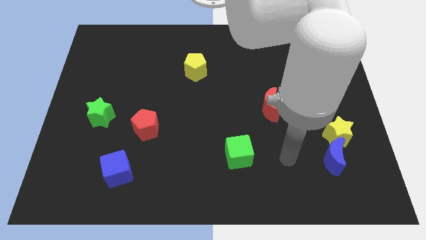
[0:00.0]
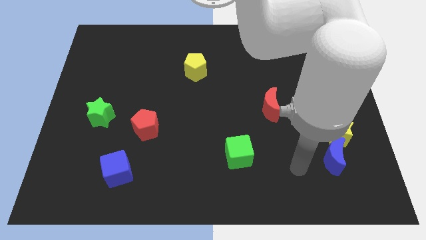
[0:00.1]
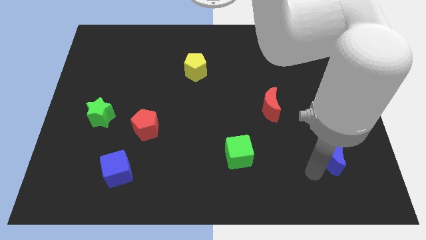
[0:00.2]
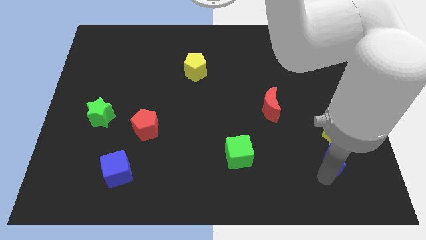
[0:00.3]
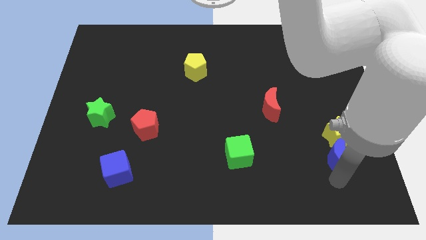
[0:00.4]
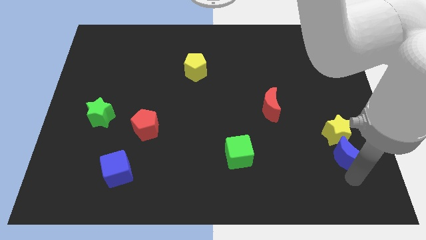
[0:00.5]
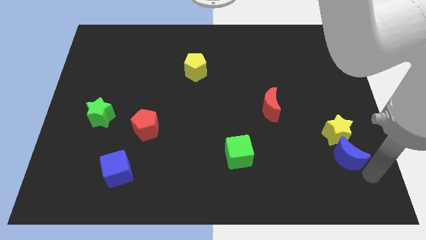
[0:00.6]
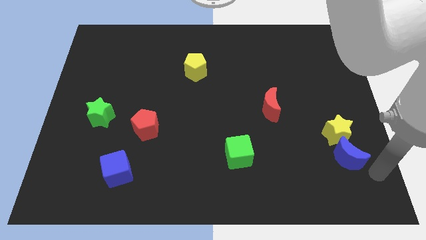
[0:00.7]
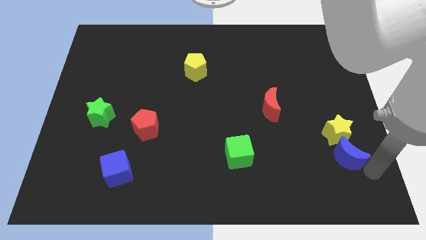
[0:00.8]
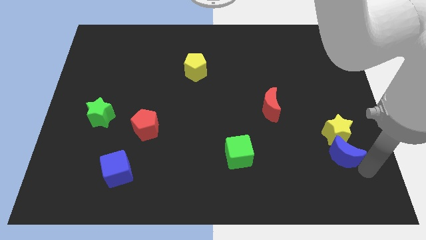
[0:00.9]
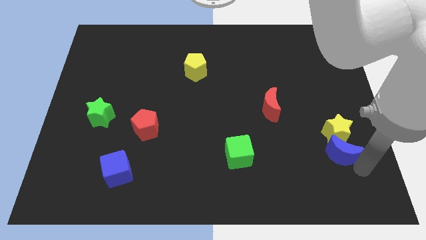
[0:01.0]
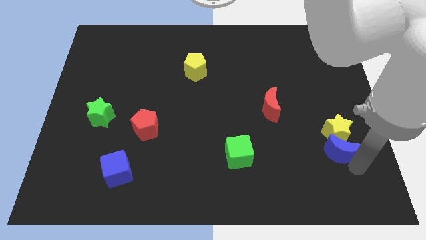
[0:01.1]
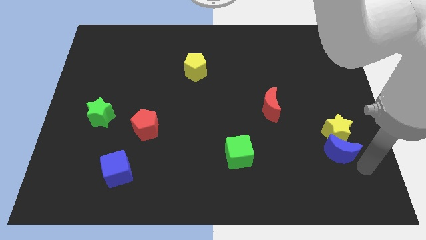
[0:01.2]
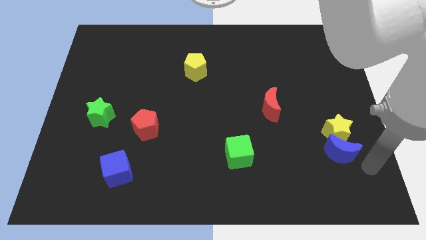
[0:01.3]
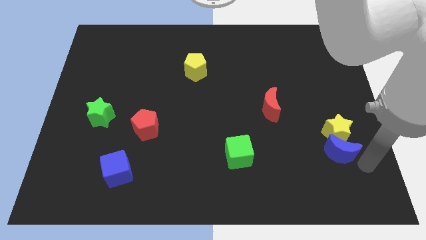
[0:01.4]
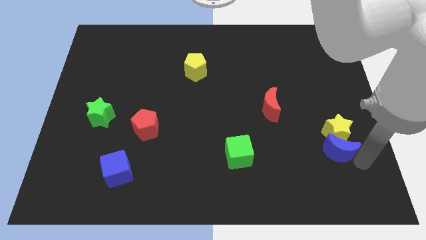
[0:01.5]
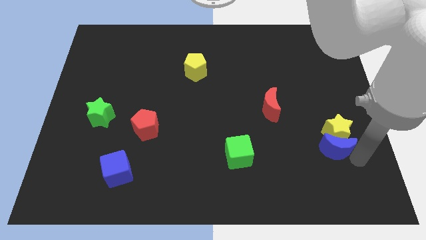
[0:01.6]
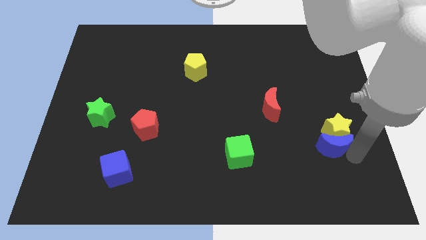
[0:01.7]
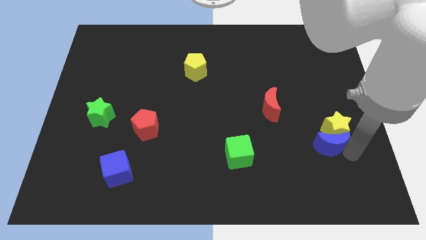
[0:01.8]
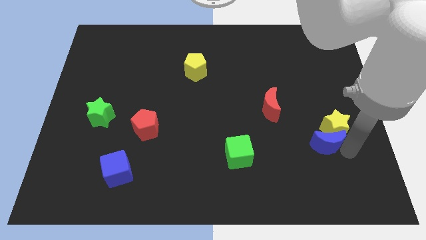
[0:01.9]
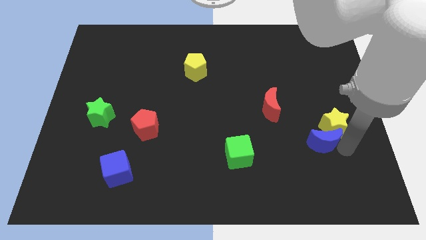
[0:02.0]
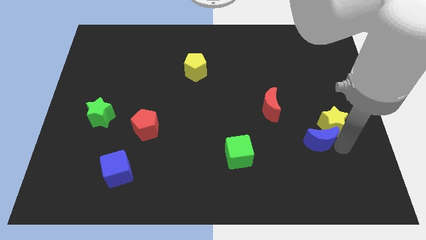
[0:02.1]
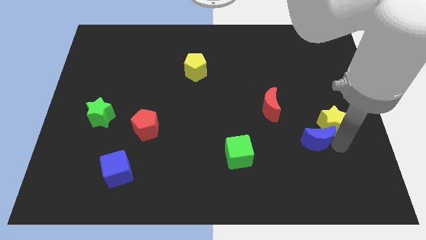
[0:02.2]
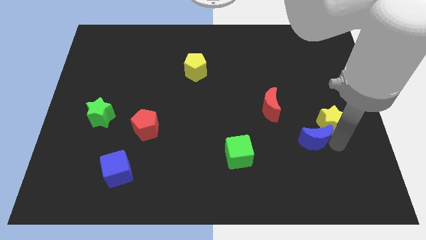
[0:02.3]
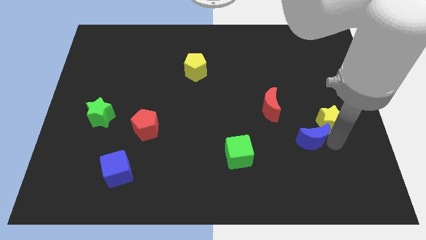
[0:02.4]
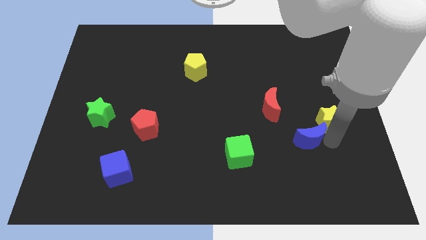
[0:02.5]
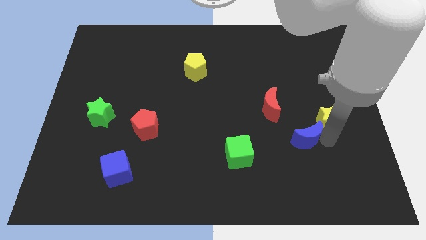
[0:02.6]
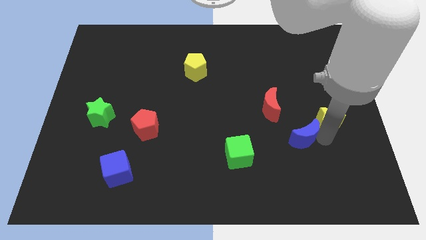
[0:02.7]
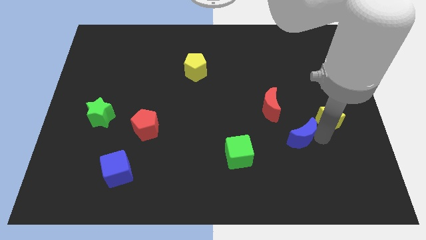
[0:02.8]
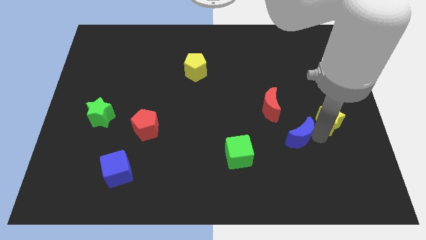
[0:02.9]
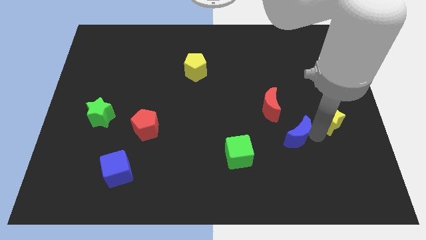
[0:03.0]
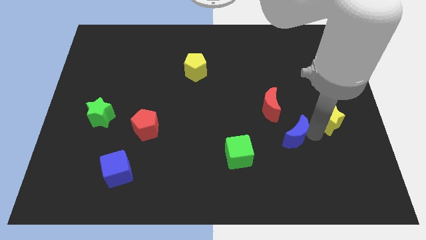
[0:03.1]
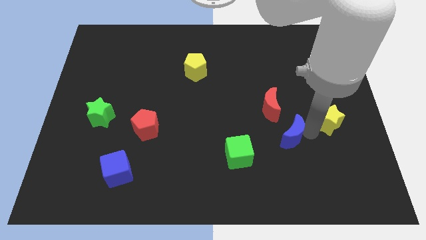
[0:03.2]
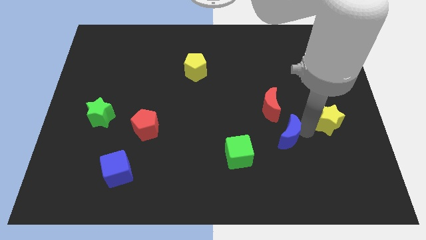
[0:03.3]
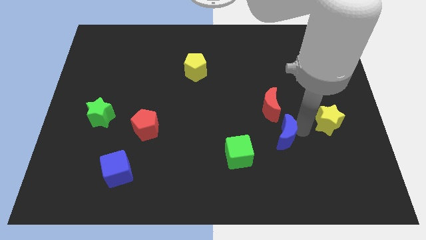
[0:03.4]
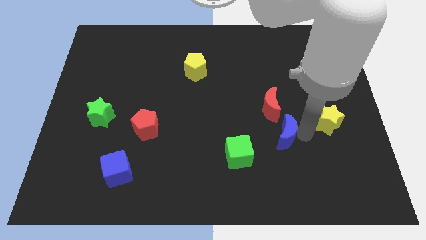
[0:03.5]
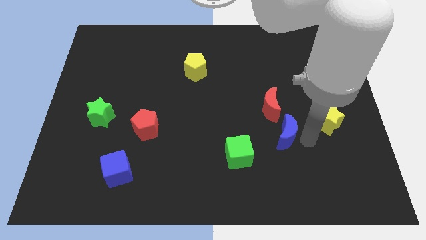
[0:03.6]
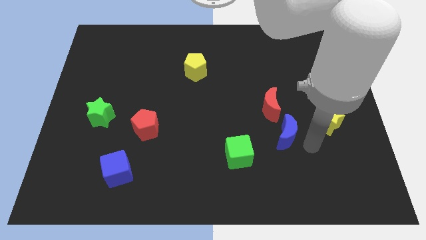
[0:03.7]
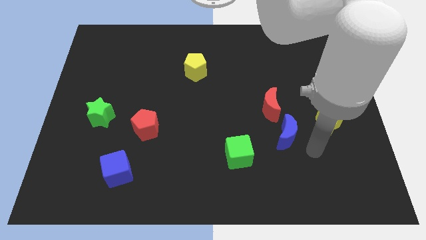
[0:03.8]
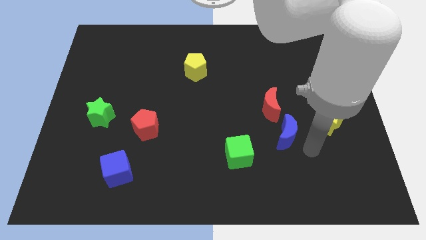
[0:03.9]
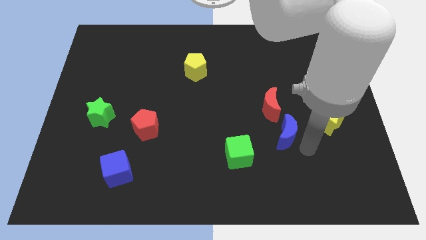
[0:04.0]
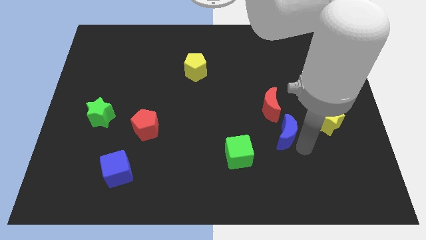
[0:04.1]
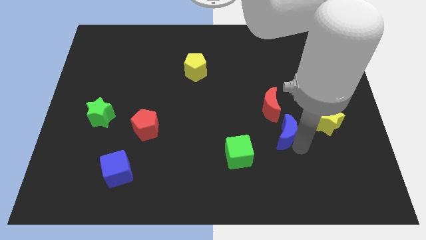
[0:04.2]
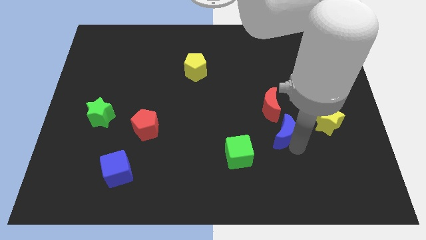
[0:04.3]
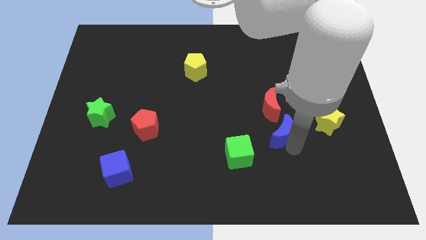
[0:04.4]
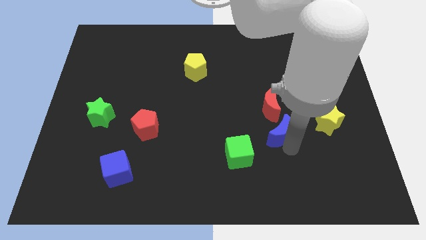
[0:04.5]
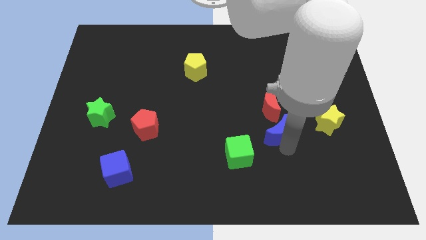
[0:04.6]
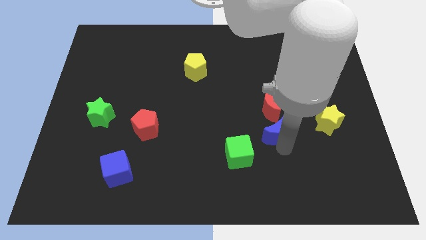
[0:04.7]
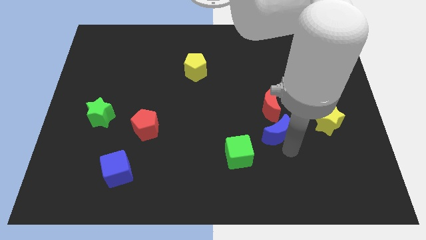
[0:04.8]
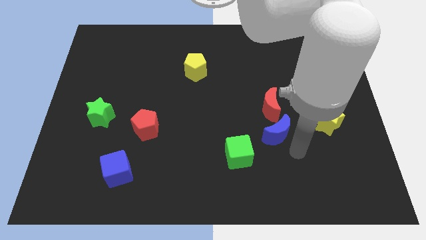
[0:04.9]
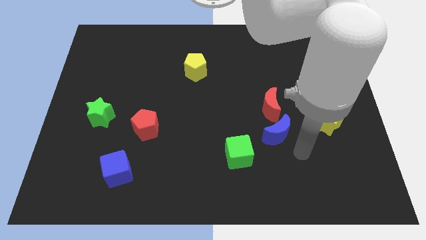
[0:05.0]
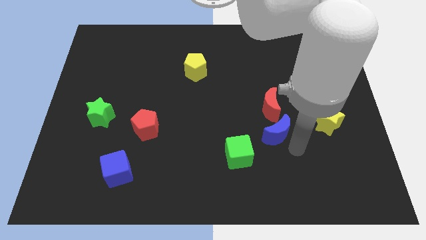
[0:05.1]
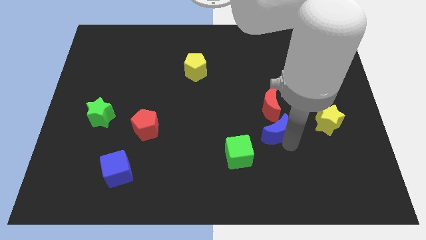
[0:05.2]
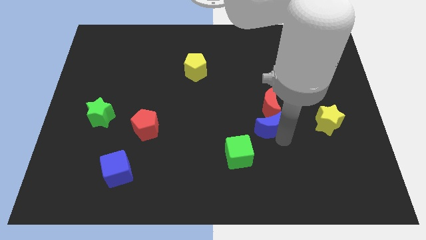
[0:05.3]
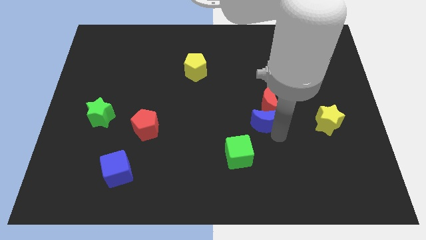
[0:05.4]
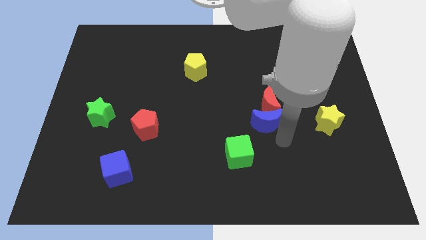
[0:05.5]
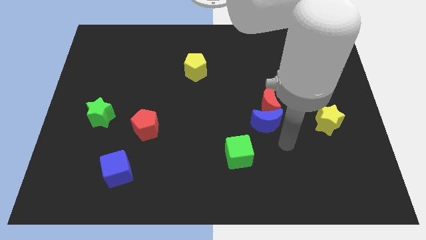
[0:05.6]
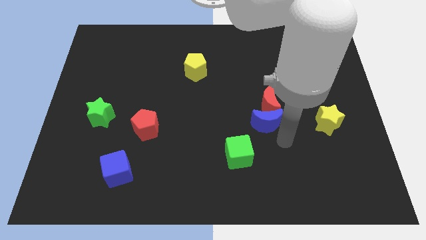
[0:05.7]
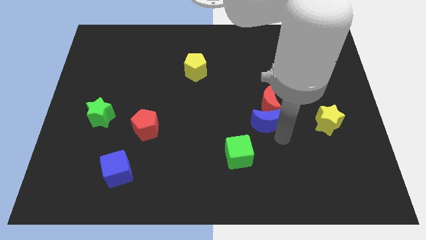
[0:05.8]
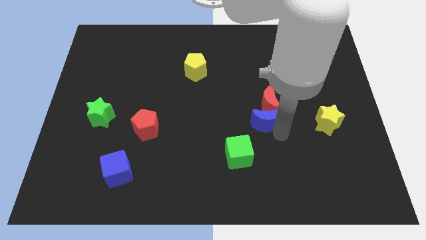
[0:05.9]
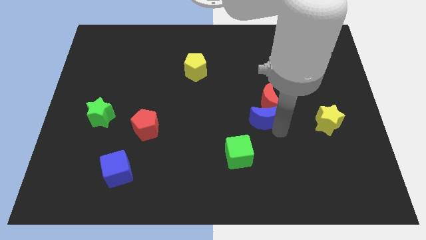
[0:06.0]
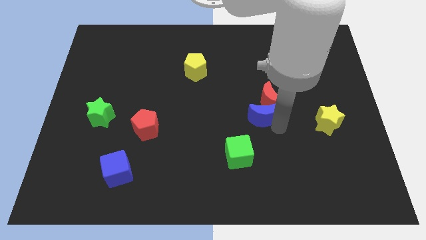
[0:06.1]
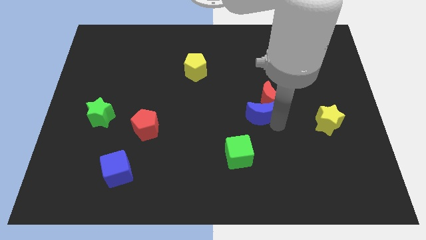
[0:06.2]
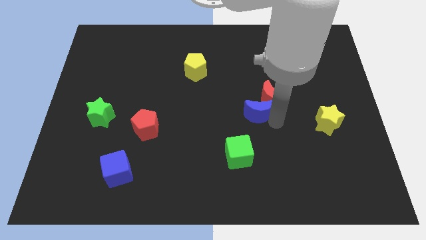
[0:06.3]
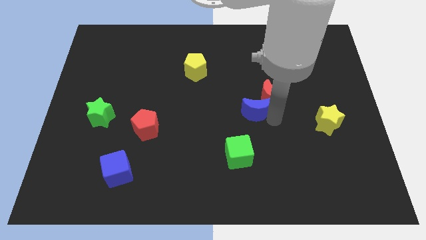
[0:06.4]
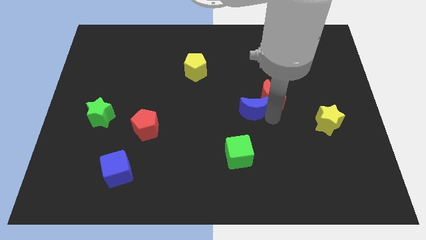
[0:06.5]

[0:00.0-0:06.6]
move the blue moon up and to the left

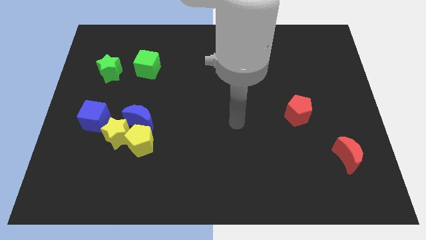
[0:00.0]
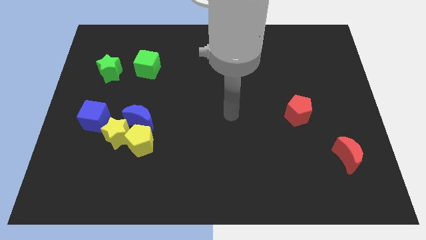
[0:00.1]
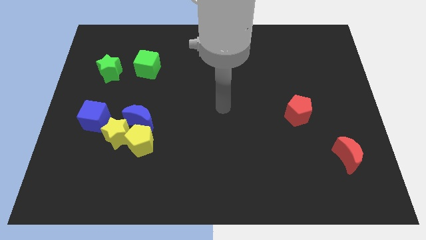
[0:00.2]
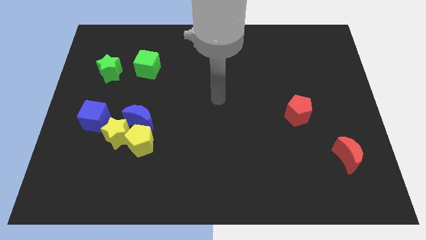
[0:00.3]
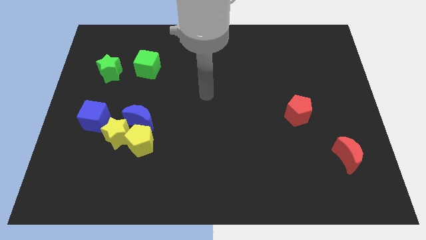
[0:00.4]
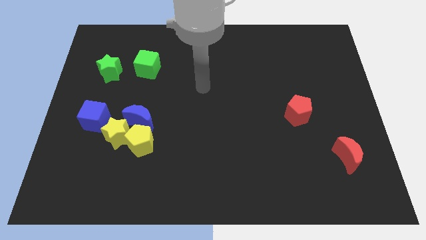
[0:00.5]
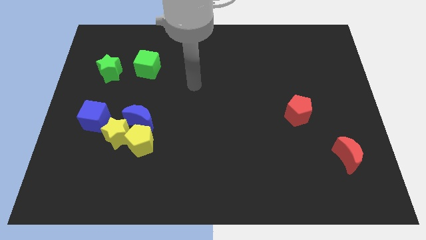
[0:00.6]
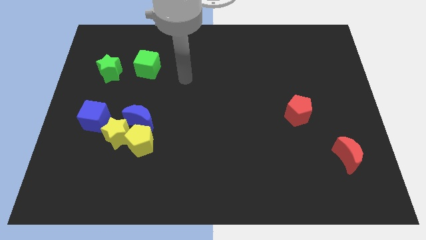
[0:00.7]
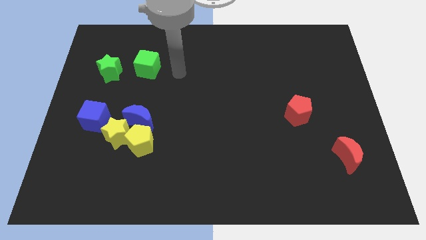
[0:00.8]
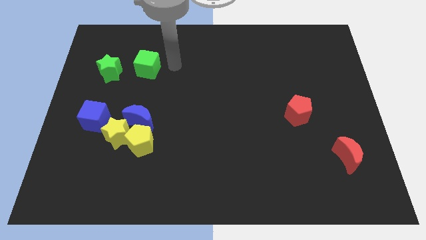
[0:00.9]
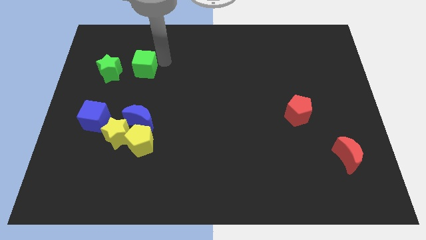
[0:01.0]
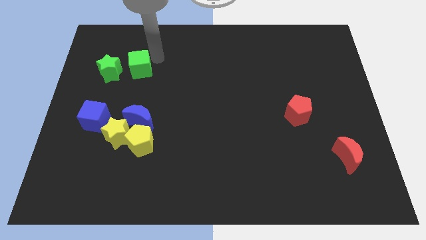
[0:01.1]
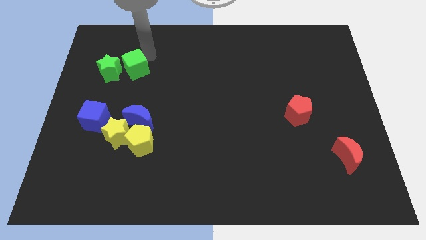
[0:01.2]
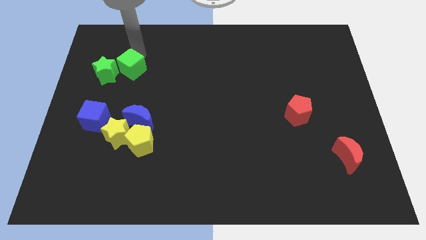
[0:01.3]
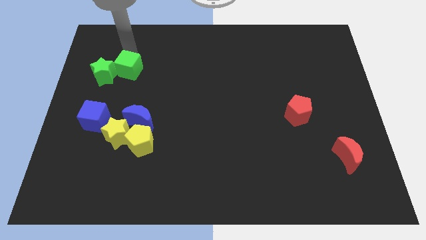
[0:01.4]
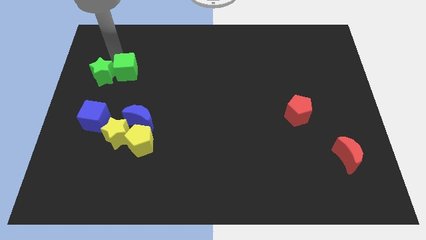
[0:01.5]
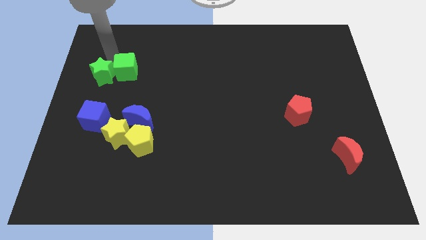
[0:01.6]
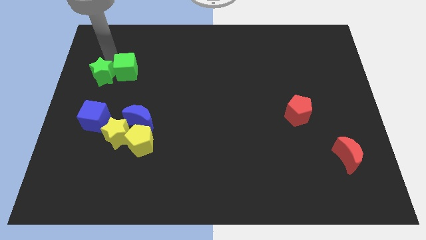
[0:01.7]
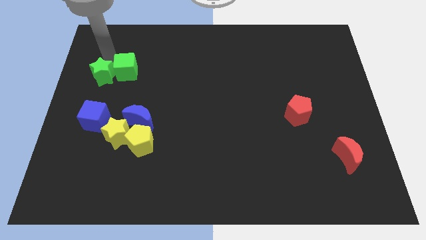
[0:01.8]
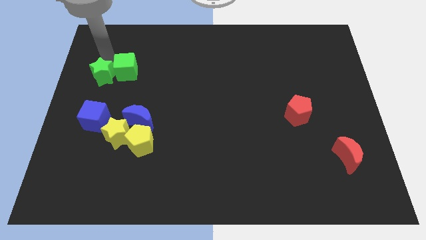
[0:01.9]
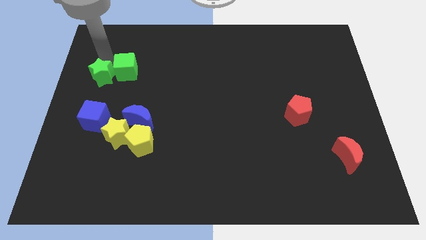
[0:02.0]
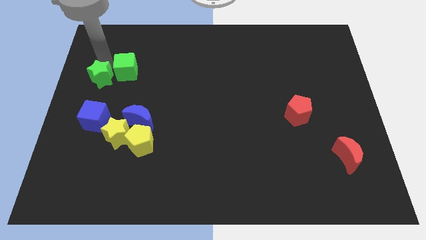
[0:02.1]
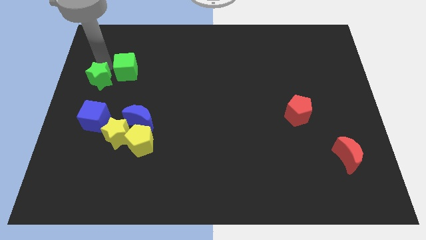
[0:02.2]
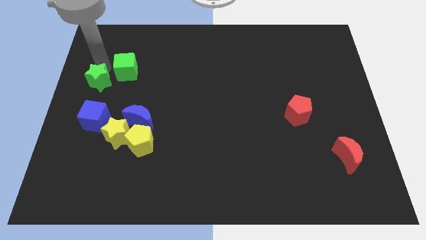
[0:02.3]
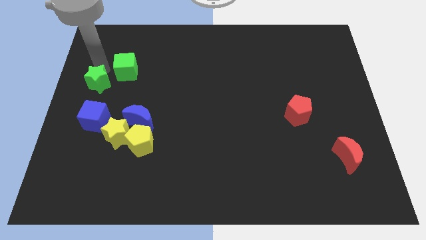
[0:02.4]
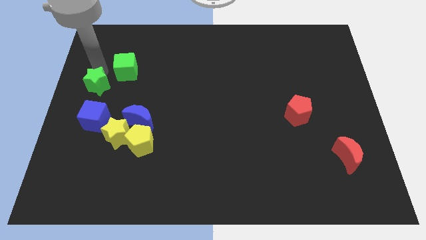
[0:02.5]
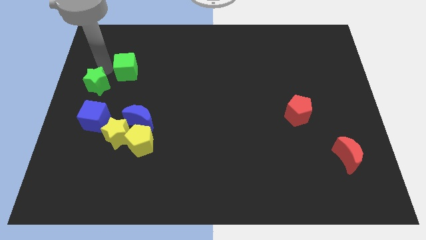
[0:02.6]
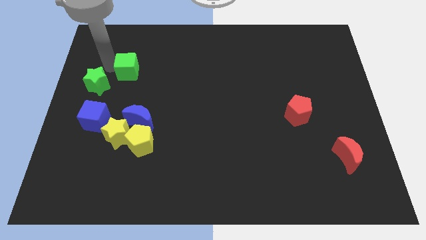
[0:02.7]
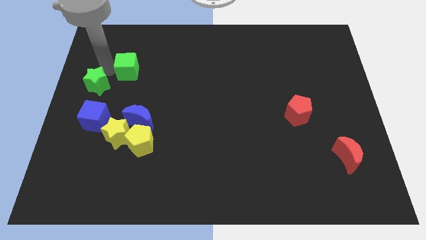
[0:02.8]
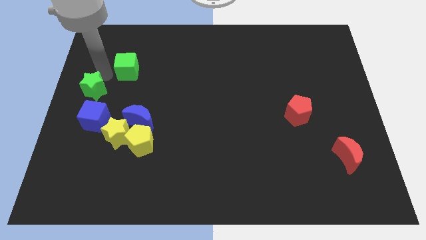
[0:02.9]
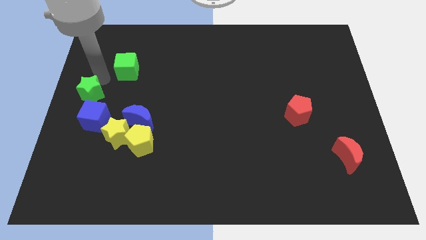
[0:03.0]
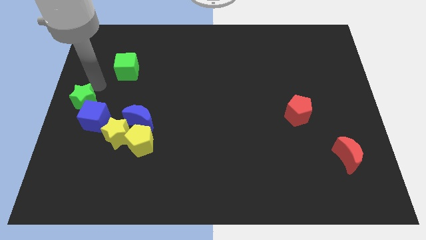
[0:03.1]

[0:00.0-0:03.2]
slide the green star down a bit
